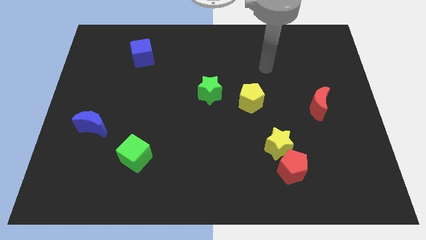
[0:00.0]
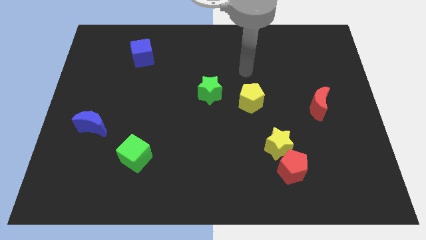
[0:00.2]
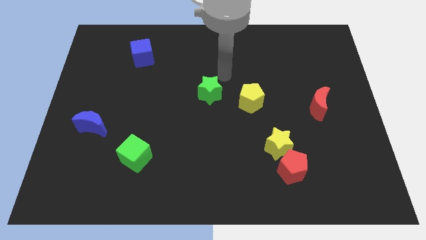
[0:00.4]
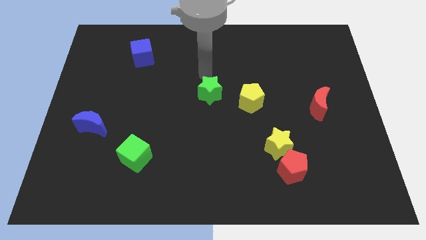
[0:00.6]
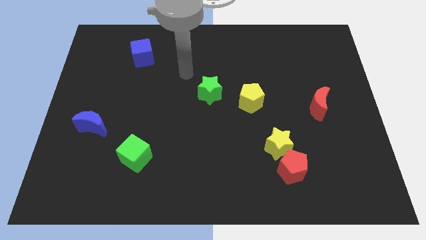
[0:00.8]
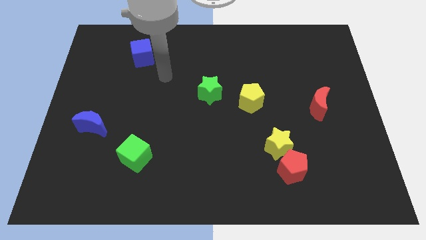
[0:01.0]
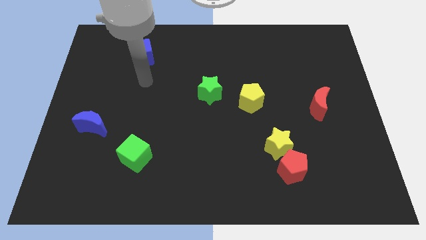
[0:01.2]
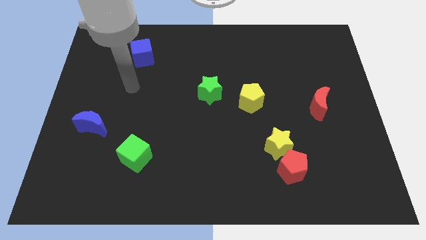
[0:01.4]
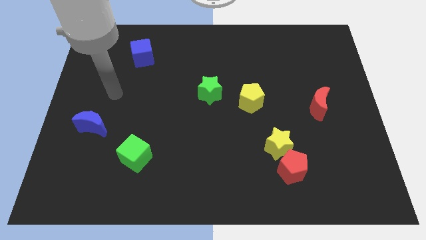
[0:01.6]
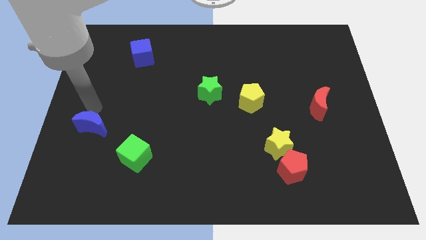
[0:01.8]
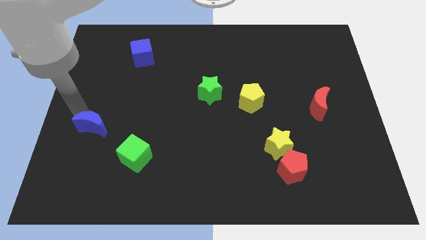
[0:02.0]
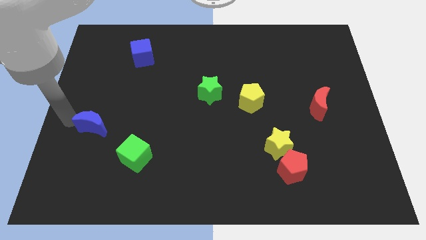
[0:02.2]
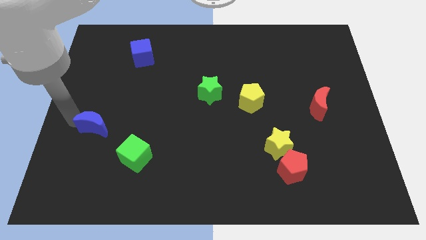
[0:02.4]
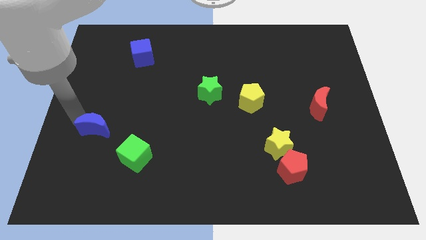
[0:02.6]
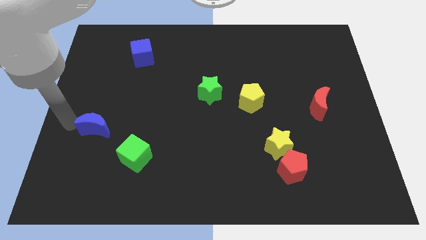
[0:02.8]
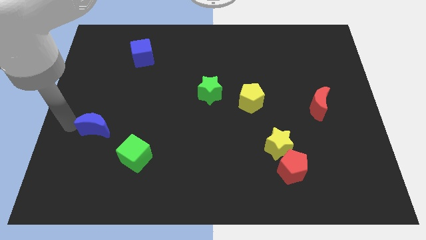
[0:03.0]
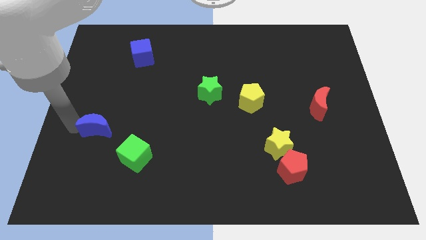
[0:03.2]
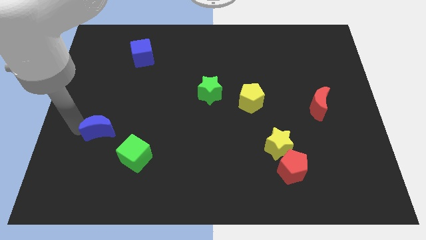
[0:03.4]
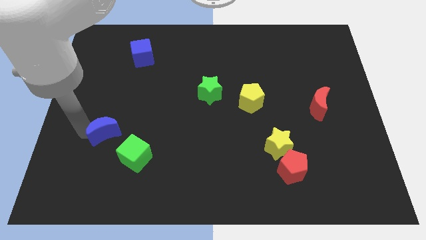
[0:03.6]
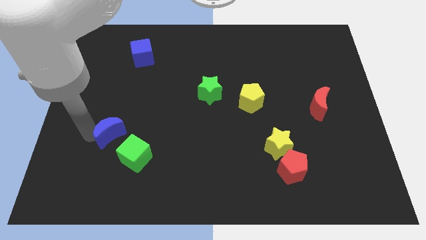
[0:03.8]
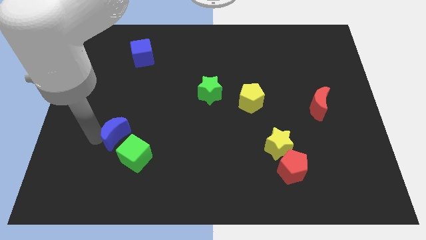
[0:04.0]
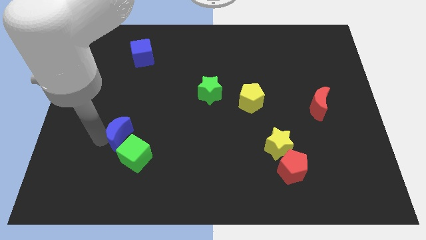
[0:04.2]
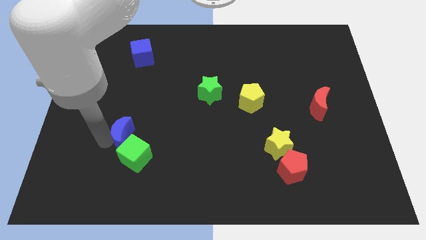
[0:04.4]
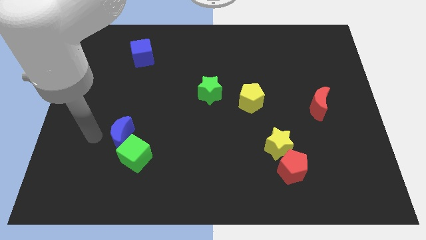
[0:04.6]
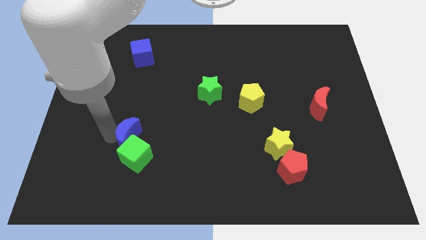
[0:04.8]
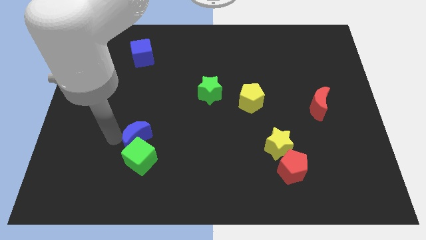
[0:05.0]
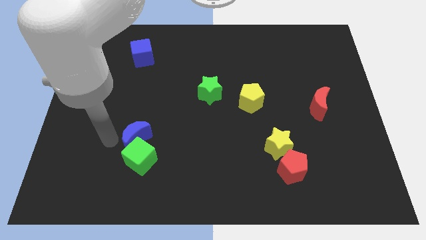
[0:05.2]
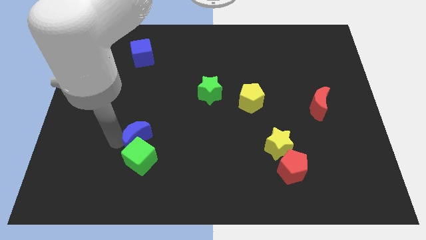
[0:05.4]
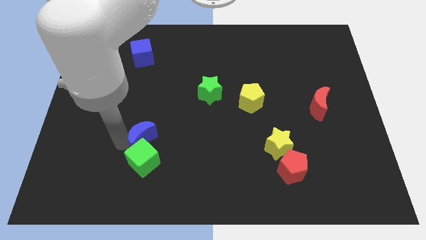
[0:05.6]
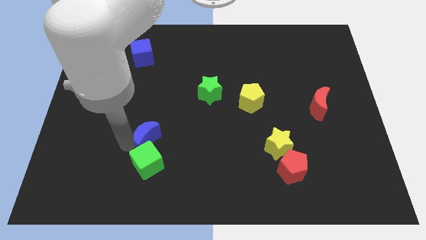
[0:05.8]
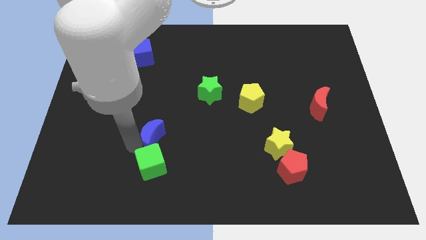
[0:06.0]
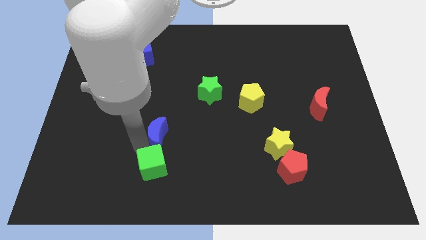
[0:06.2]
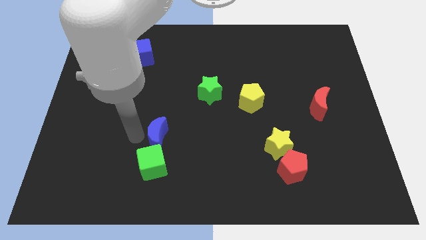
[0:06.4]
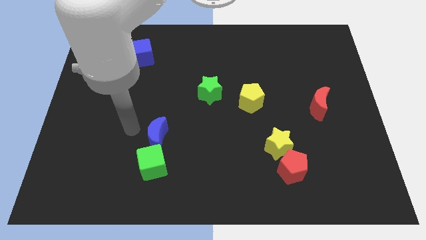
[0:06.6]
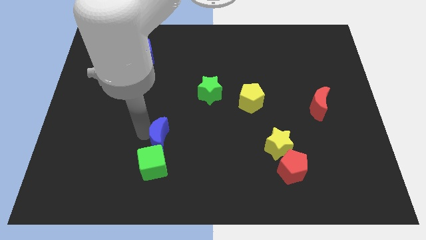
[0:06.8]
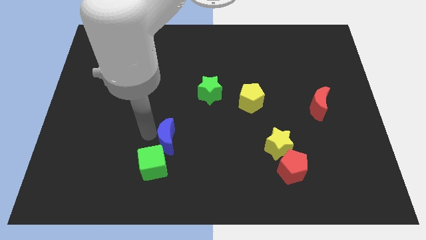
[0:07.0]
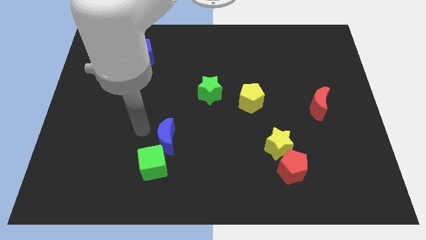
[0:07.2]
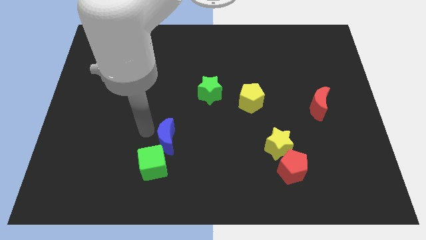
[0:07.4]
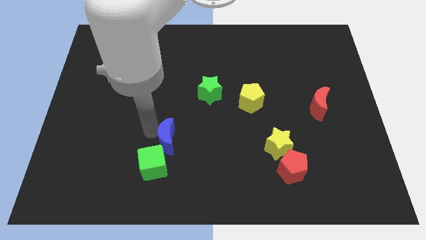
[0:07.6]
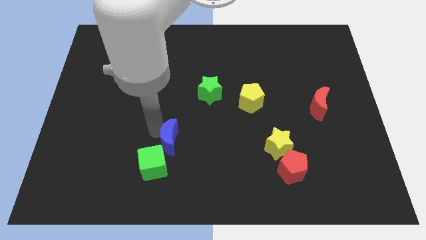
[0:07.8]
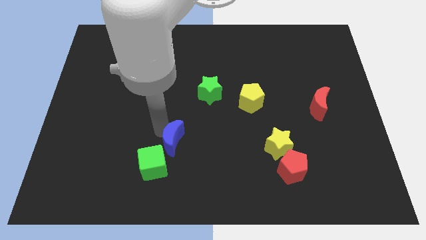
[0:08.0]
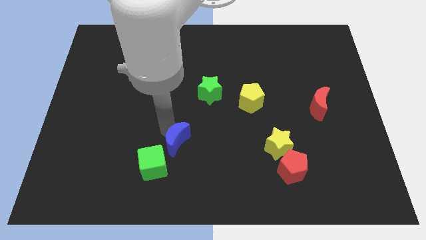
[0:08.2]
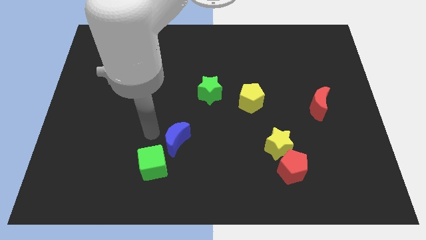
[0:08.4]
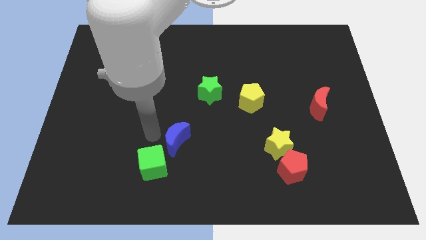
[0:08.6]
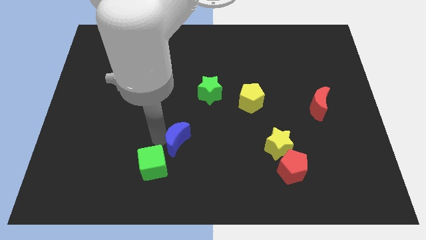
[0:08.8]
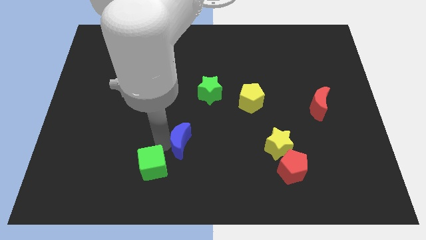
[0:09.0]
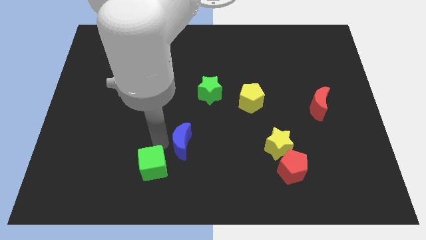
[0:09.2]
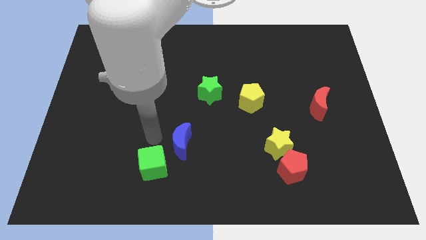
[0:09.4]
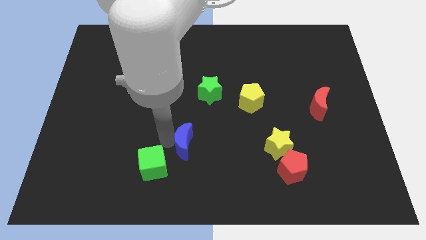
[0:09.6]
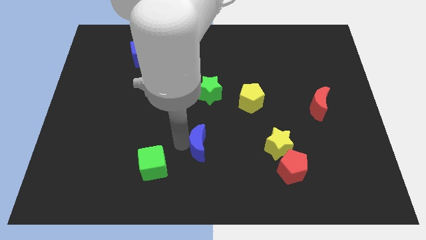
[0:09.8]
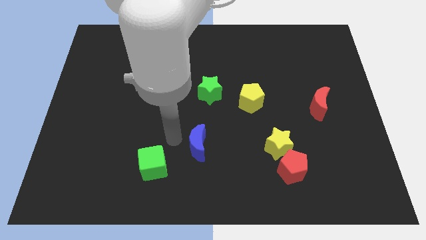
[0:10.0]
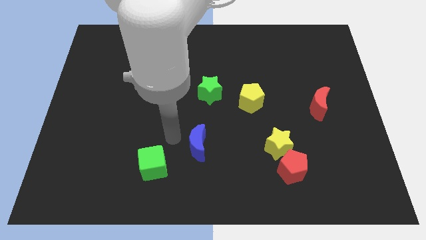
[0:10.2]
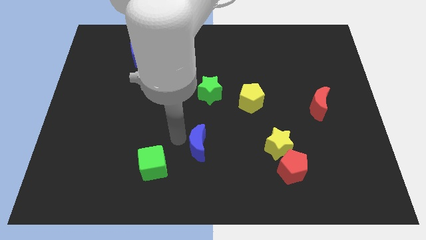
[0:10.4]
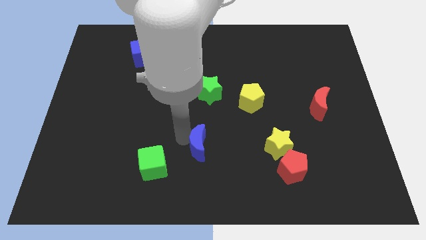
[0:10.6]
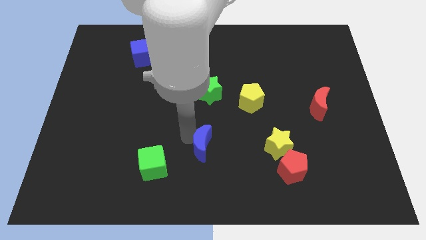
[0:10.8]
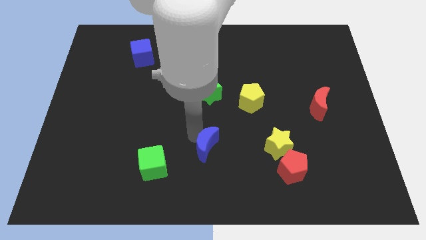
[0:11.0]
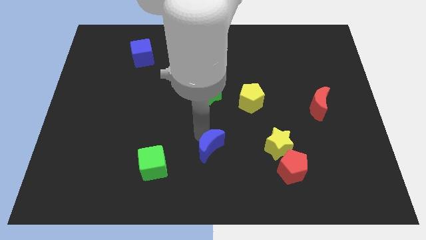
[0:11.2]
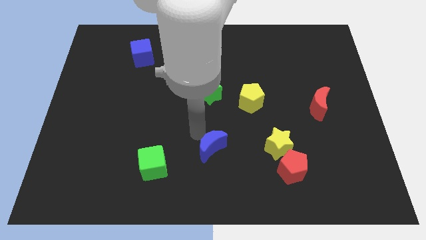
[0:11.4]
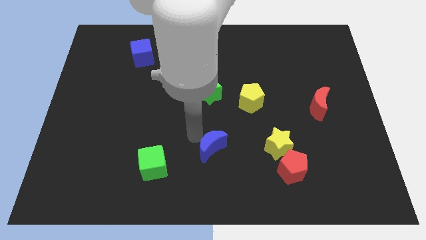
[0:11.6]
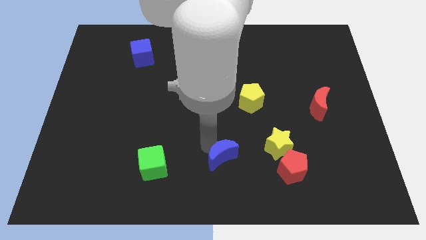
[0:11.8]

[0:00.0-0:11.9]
put the blue moon just left of the red pentagon

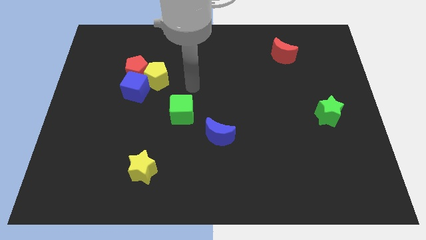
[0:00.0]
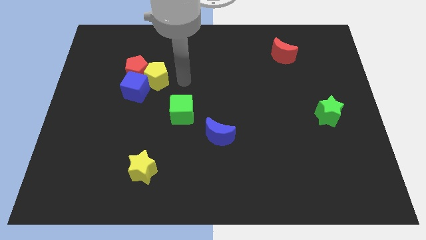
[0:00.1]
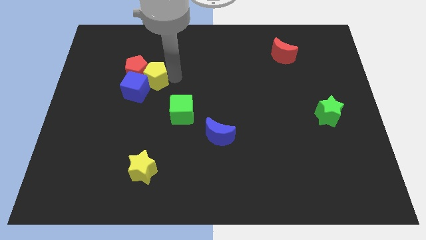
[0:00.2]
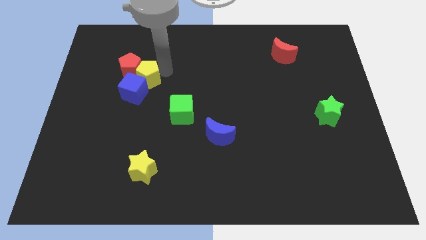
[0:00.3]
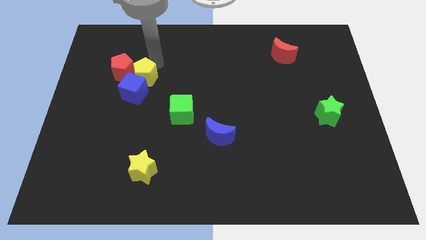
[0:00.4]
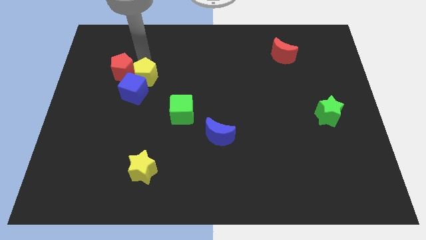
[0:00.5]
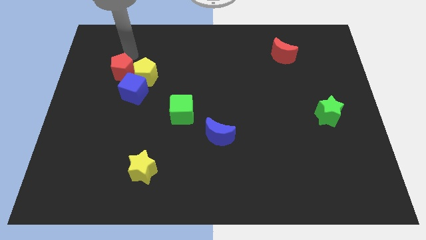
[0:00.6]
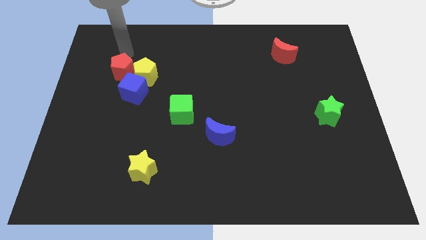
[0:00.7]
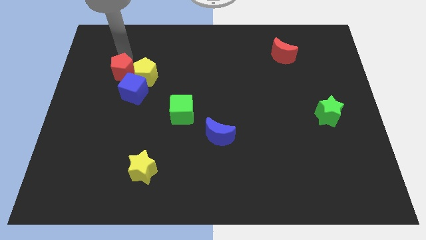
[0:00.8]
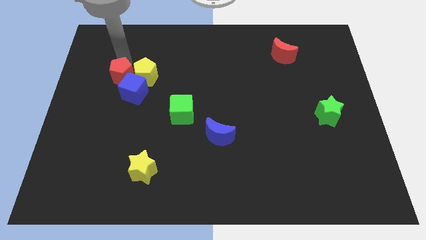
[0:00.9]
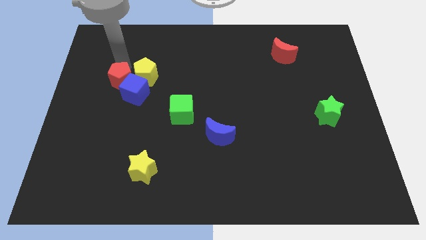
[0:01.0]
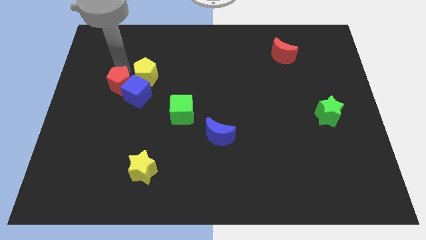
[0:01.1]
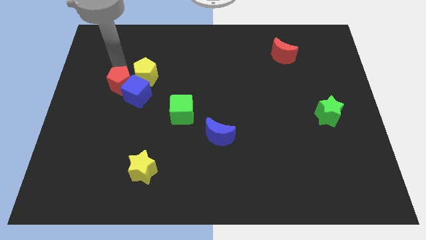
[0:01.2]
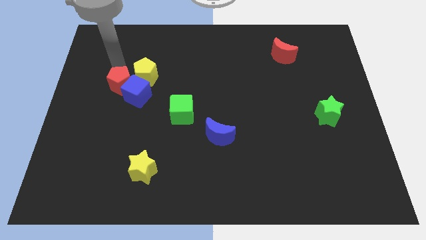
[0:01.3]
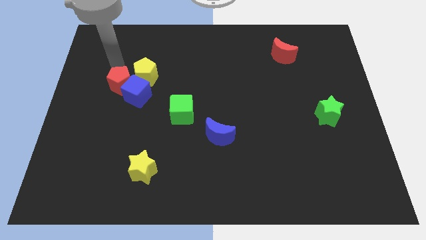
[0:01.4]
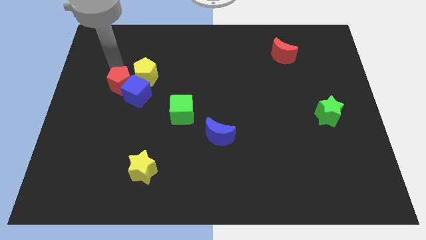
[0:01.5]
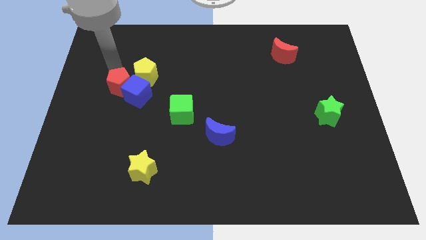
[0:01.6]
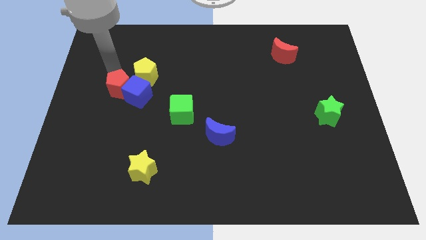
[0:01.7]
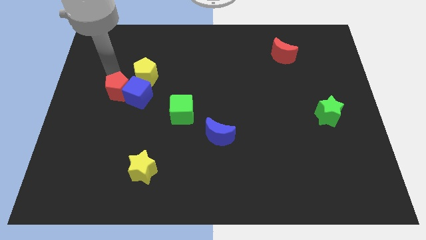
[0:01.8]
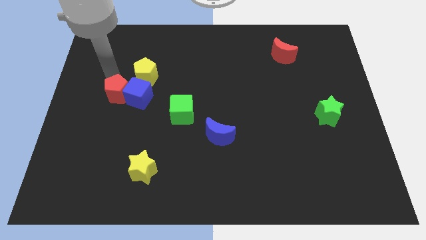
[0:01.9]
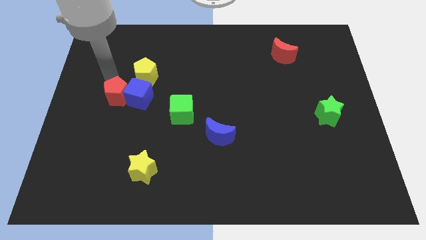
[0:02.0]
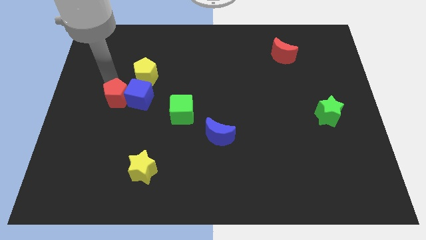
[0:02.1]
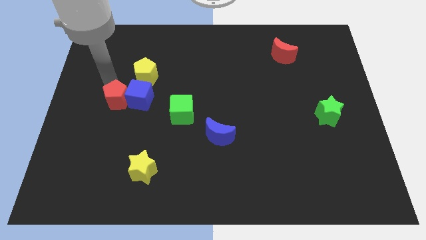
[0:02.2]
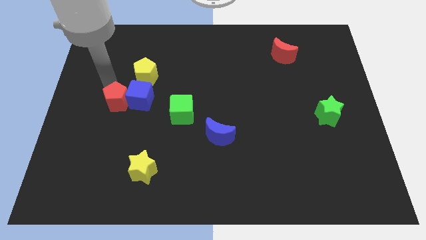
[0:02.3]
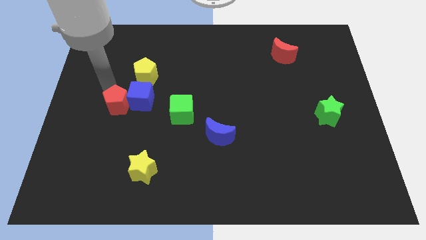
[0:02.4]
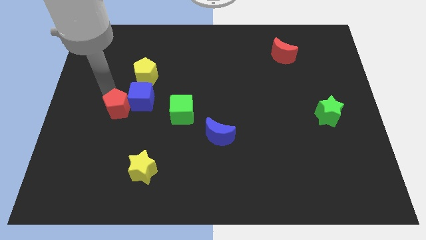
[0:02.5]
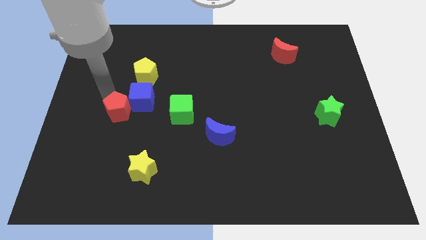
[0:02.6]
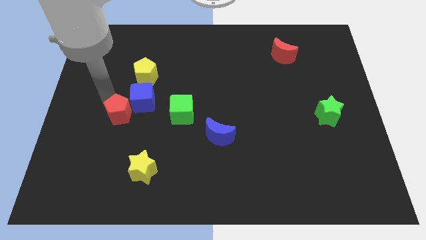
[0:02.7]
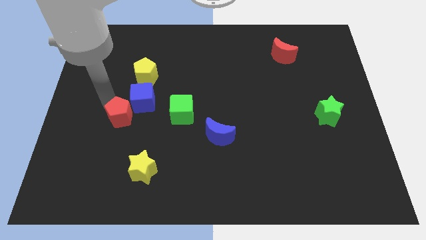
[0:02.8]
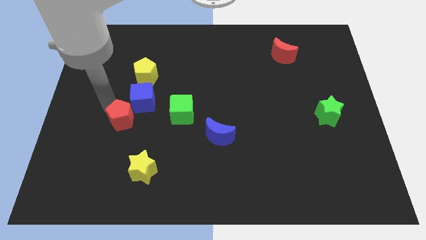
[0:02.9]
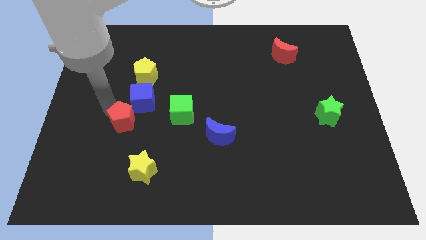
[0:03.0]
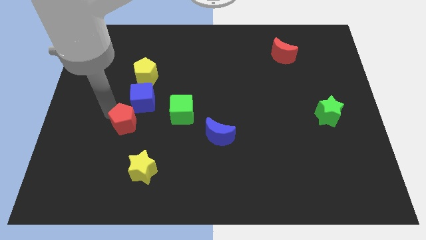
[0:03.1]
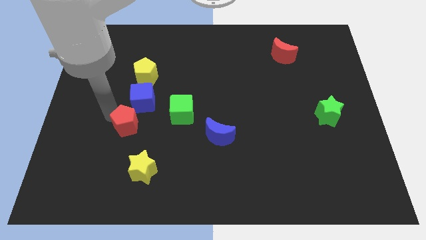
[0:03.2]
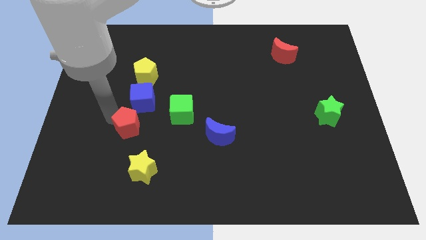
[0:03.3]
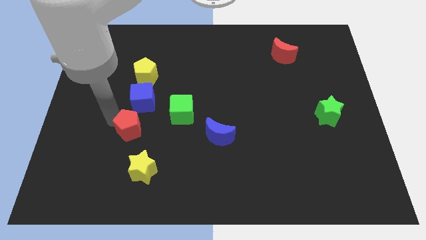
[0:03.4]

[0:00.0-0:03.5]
put the red pentagon to the top of the yellow star
